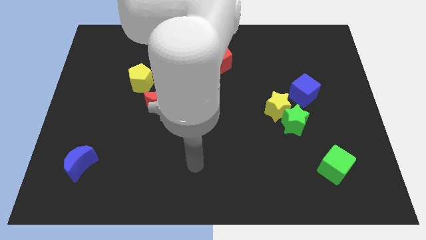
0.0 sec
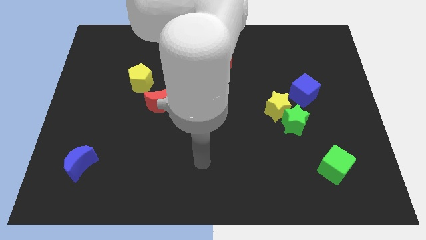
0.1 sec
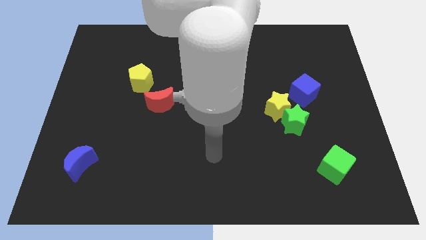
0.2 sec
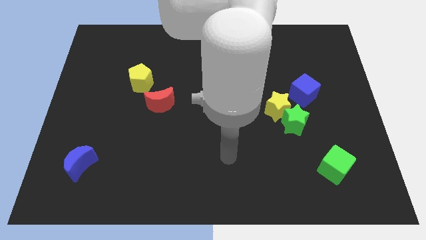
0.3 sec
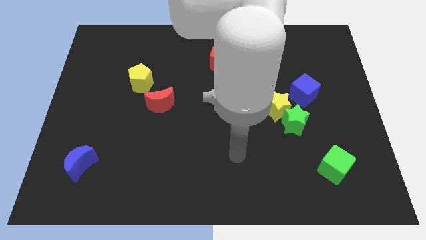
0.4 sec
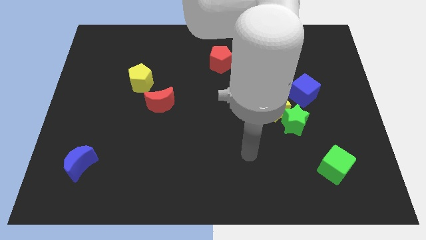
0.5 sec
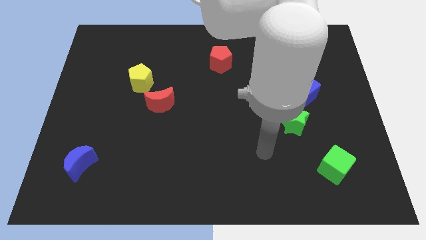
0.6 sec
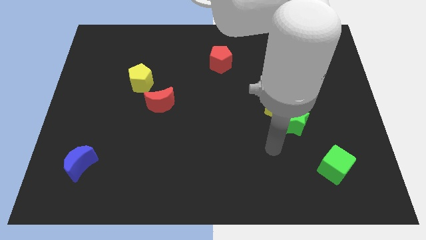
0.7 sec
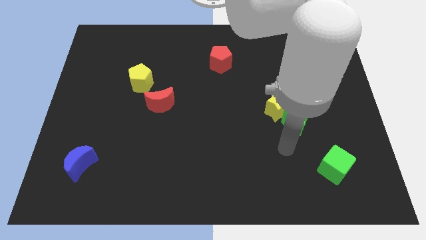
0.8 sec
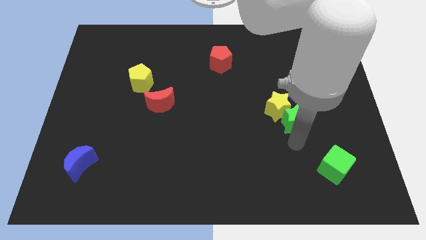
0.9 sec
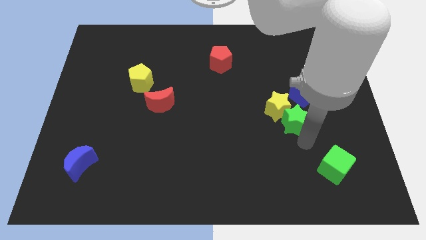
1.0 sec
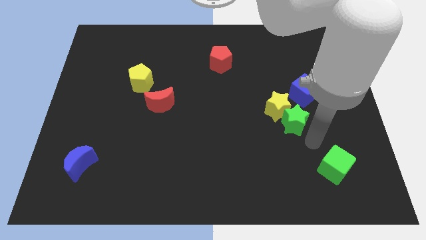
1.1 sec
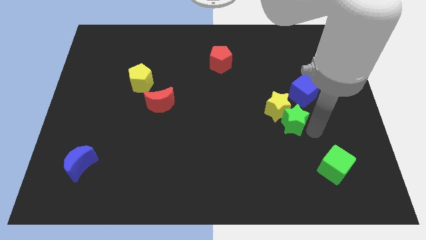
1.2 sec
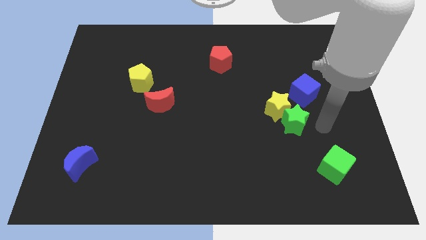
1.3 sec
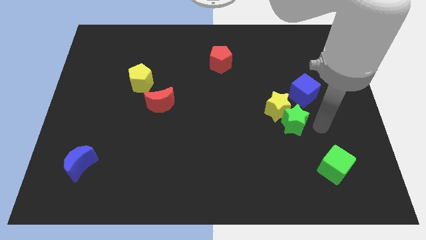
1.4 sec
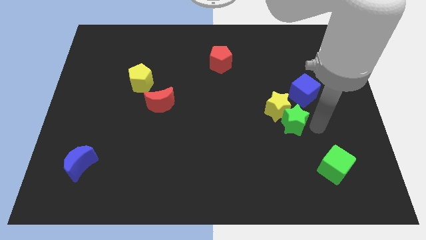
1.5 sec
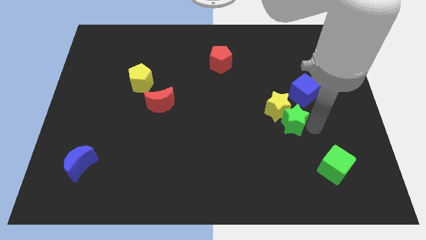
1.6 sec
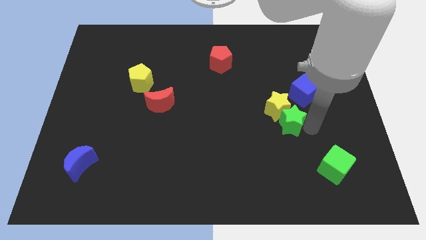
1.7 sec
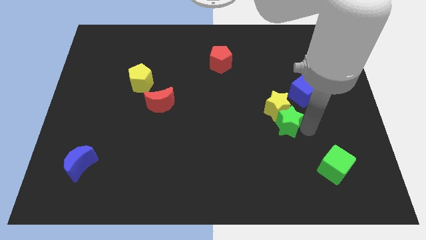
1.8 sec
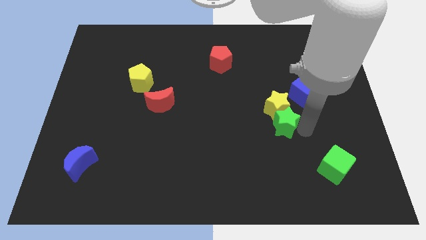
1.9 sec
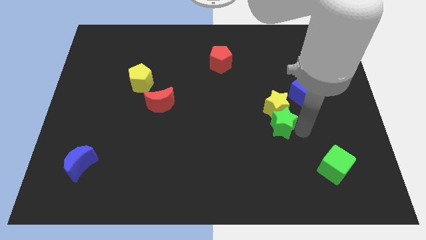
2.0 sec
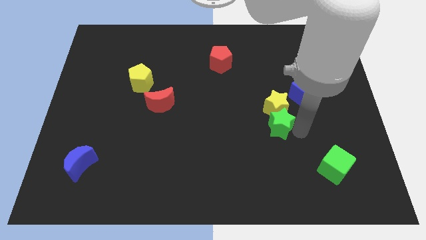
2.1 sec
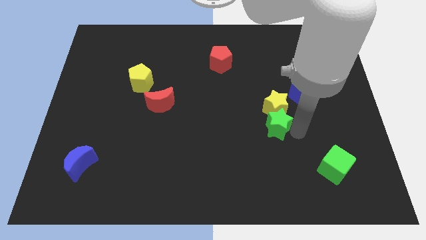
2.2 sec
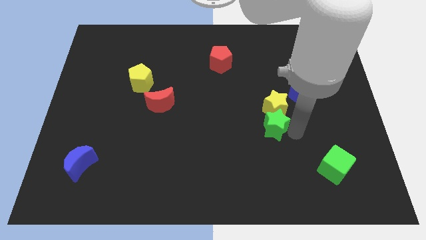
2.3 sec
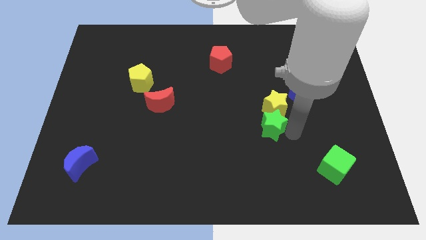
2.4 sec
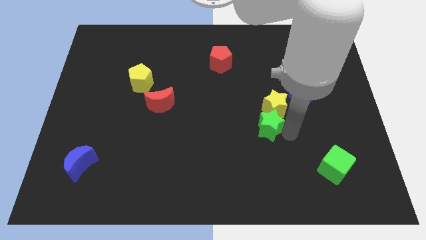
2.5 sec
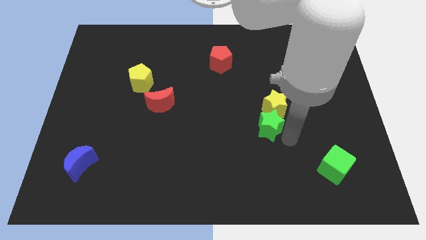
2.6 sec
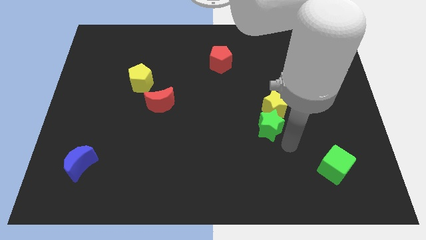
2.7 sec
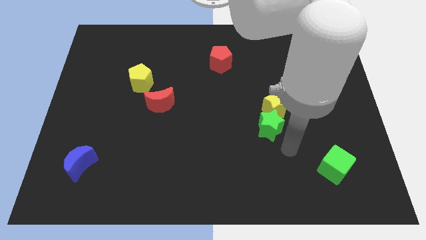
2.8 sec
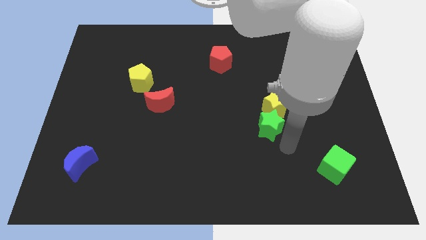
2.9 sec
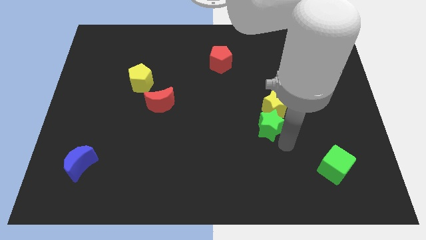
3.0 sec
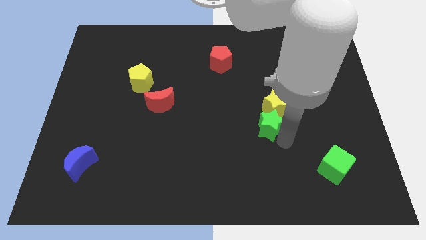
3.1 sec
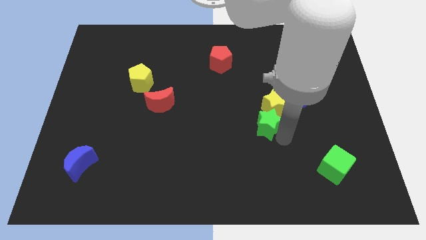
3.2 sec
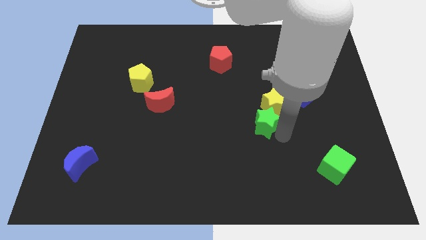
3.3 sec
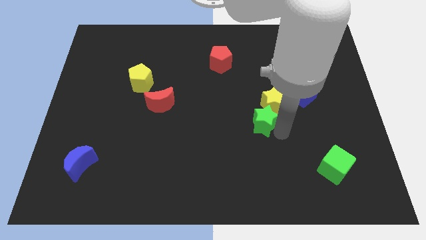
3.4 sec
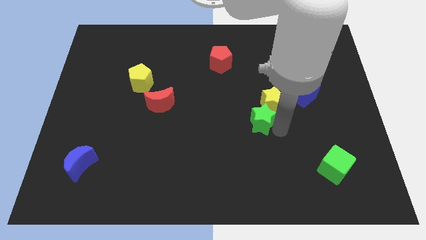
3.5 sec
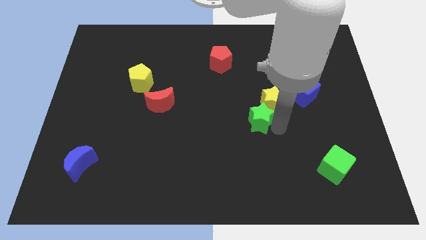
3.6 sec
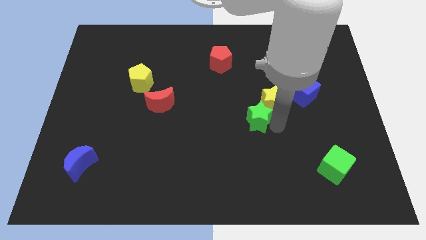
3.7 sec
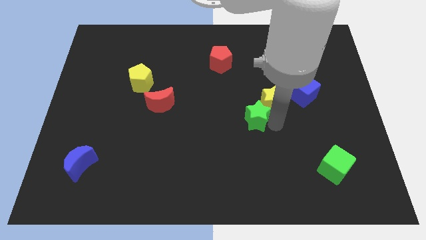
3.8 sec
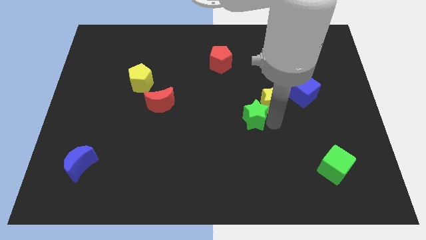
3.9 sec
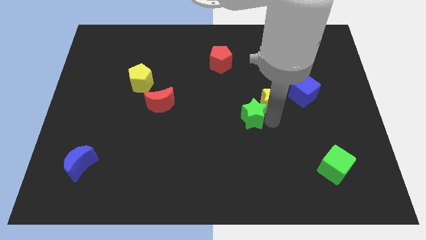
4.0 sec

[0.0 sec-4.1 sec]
move the green star up and then left somewhat

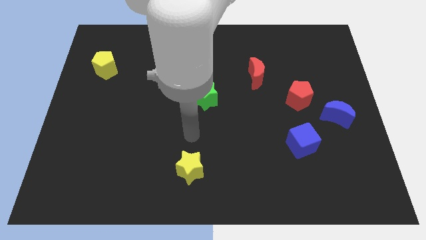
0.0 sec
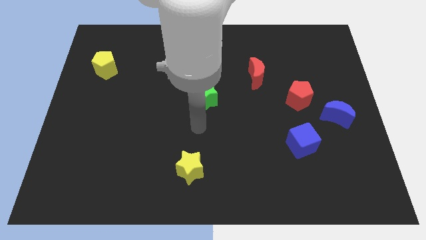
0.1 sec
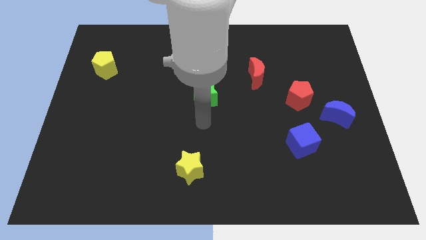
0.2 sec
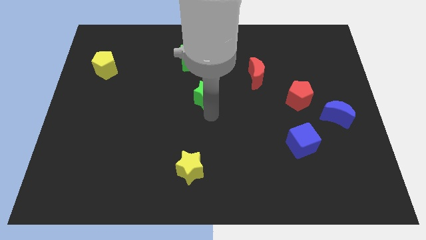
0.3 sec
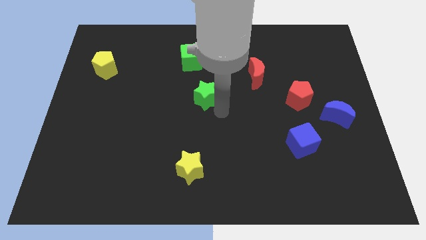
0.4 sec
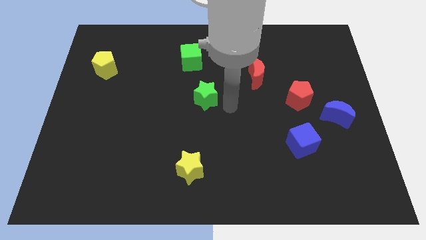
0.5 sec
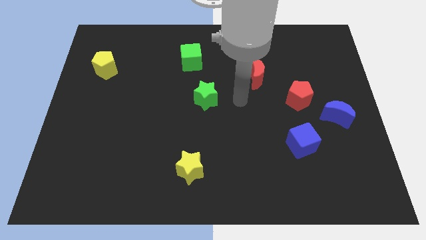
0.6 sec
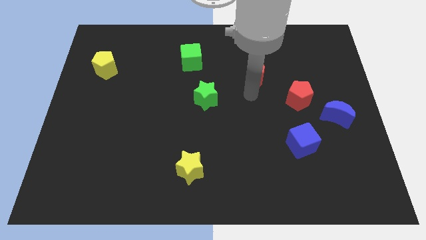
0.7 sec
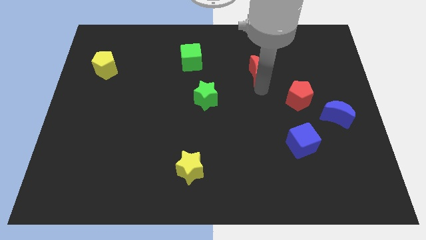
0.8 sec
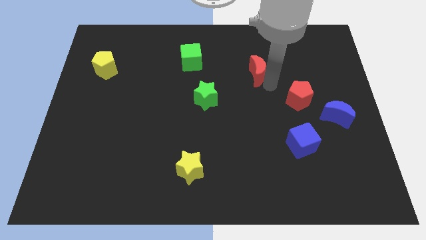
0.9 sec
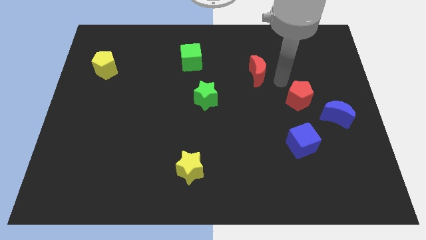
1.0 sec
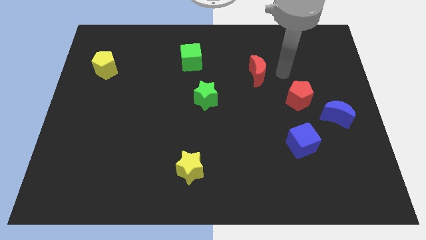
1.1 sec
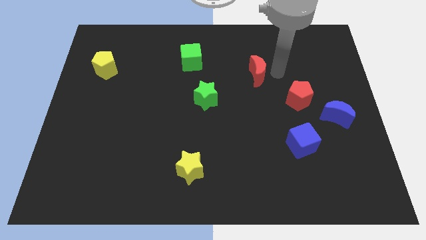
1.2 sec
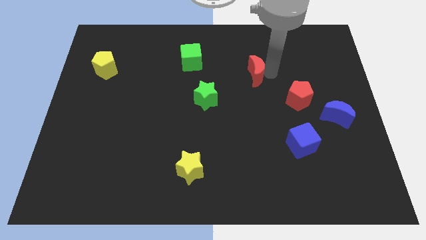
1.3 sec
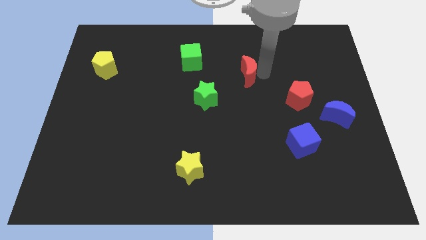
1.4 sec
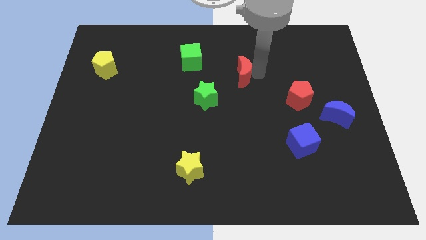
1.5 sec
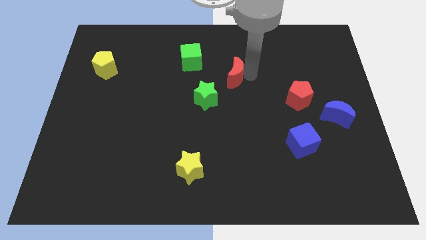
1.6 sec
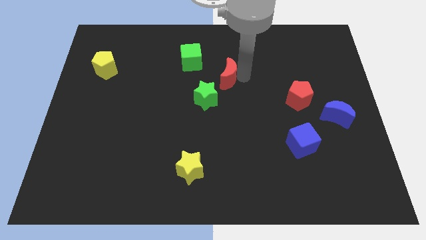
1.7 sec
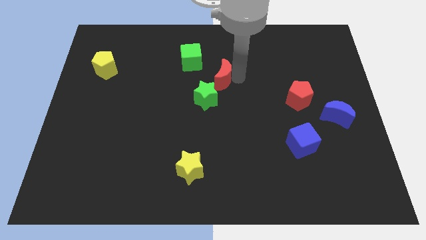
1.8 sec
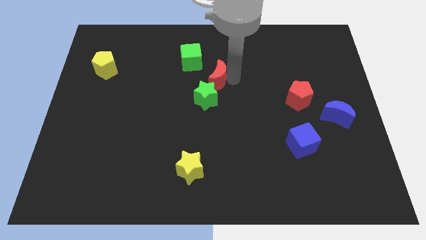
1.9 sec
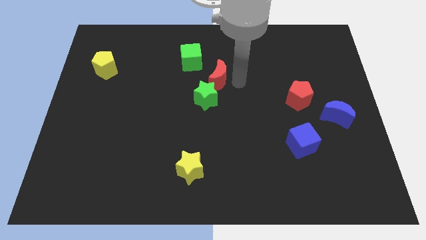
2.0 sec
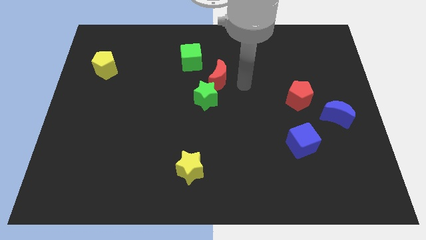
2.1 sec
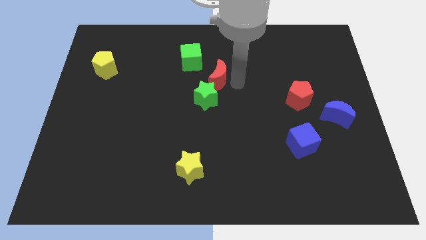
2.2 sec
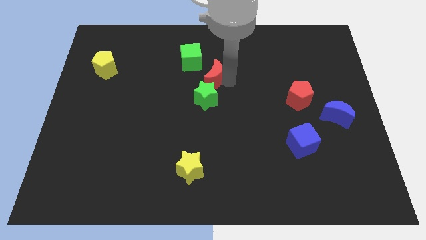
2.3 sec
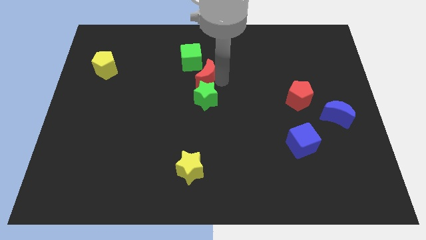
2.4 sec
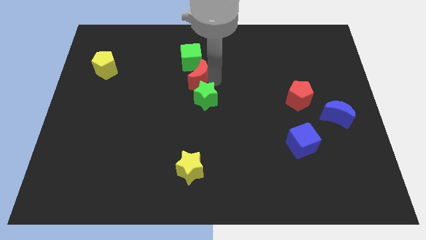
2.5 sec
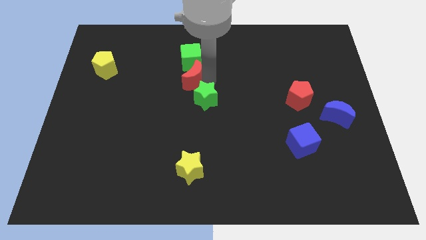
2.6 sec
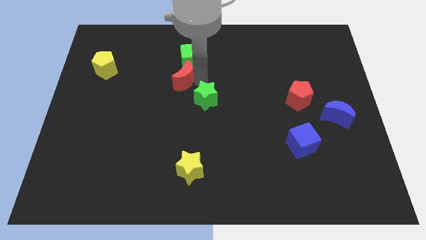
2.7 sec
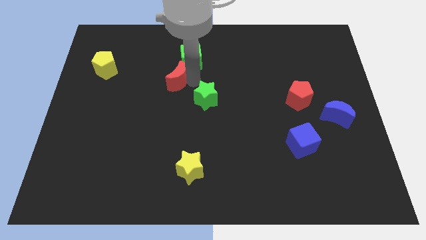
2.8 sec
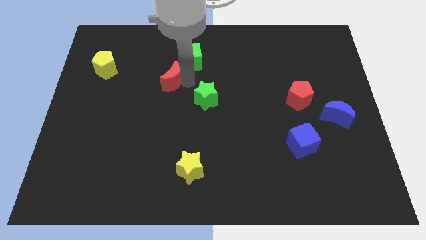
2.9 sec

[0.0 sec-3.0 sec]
slide the red moon left

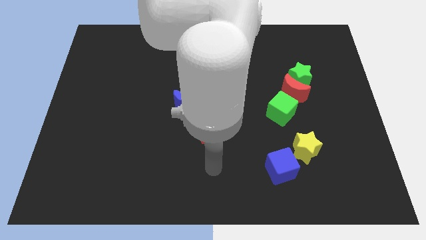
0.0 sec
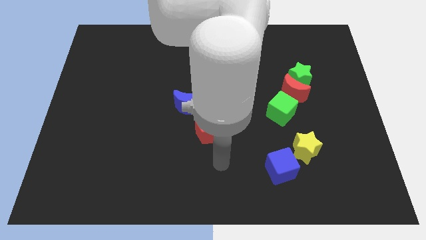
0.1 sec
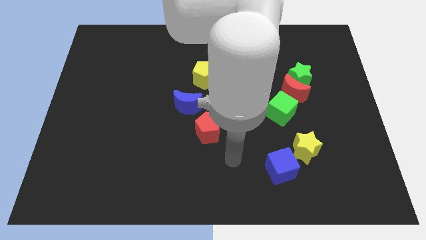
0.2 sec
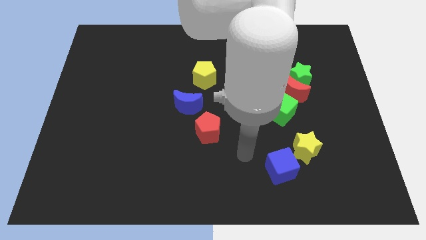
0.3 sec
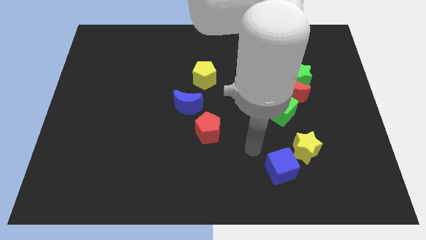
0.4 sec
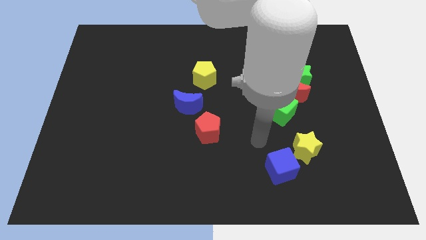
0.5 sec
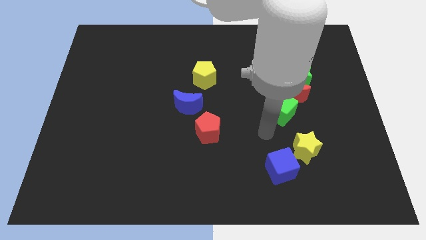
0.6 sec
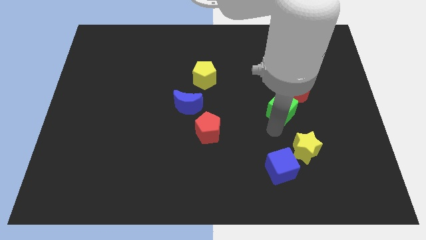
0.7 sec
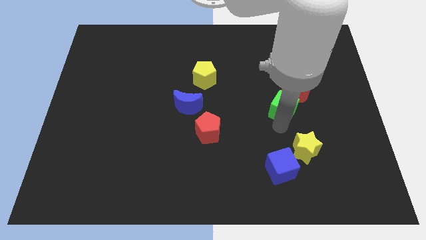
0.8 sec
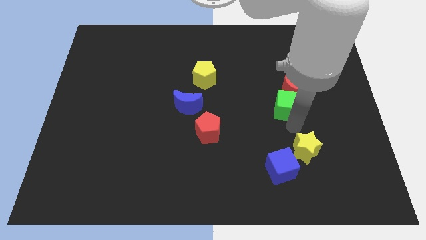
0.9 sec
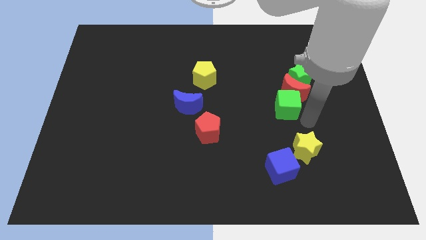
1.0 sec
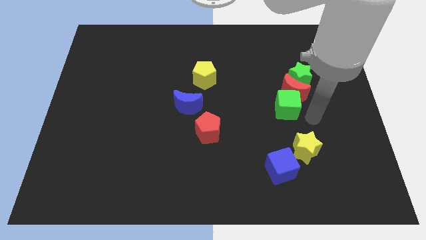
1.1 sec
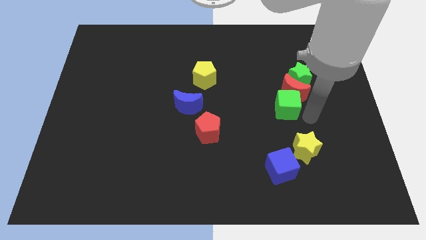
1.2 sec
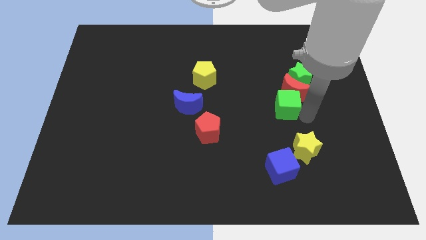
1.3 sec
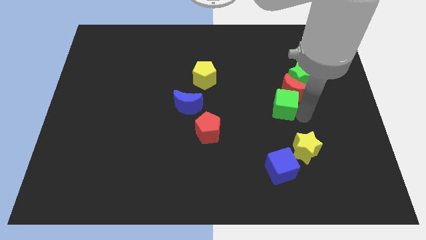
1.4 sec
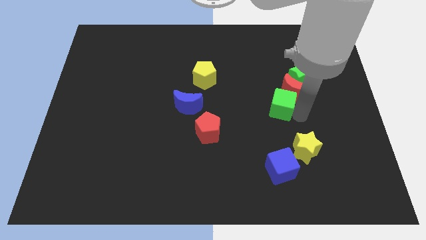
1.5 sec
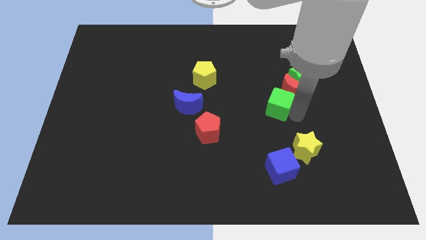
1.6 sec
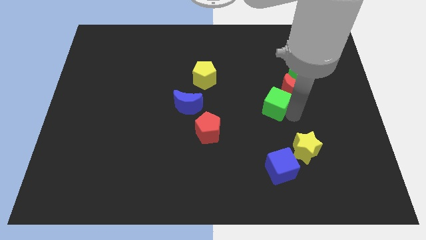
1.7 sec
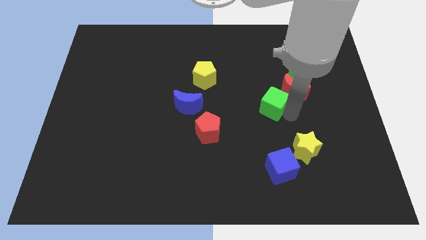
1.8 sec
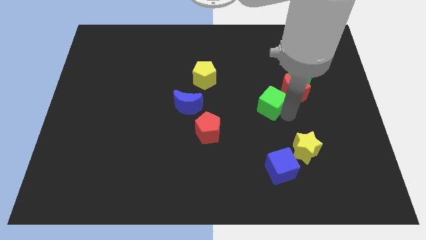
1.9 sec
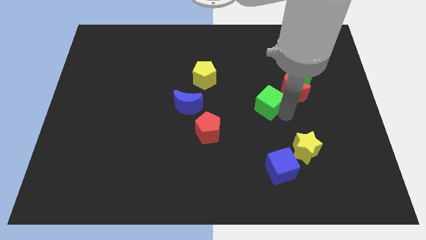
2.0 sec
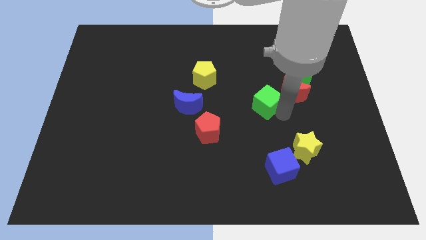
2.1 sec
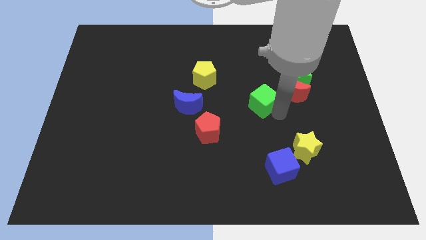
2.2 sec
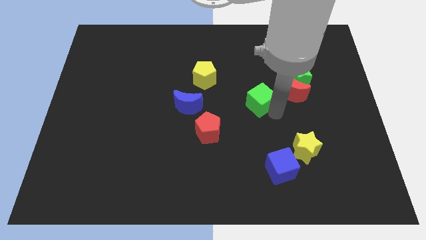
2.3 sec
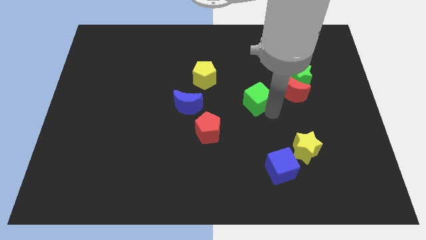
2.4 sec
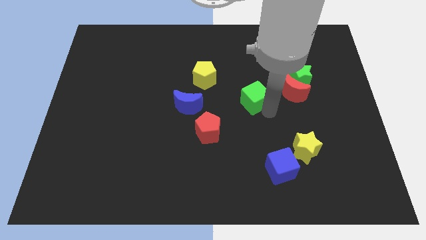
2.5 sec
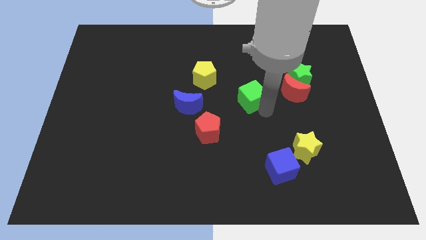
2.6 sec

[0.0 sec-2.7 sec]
slightly move the green cube upwards and to the left
